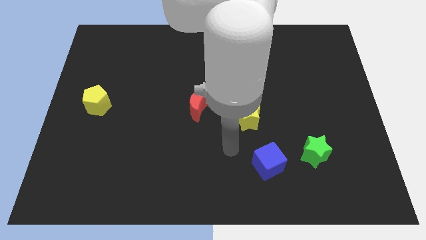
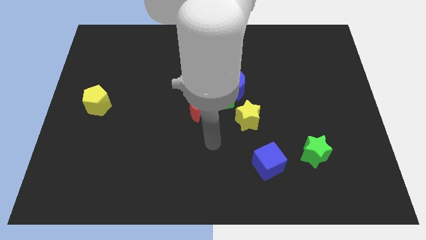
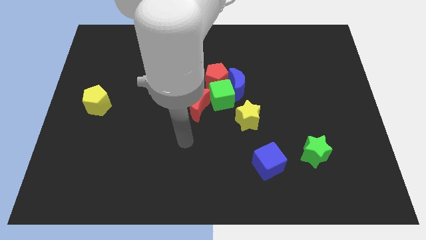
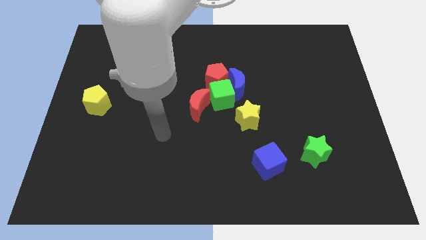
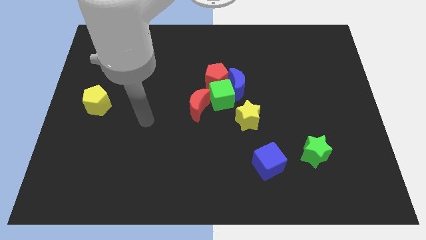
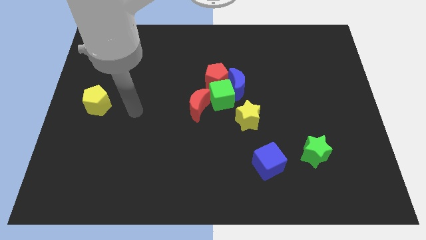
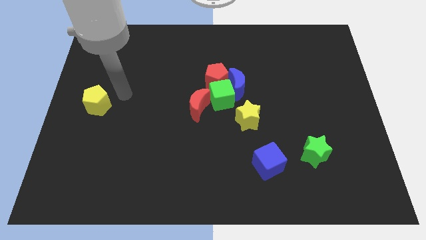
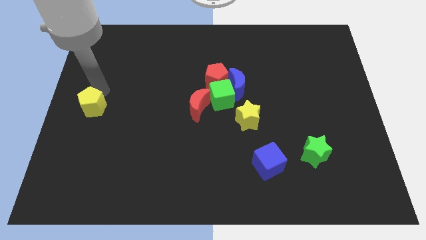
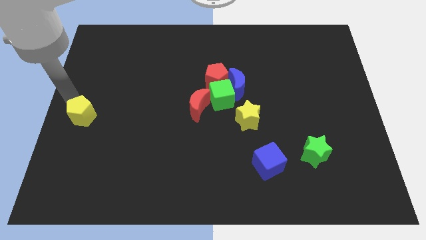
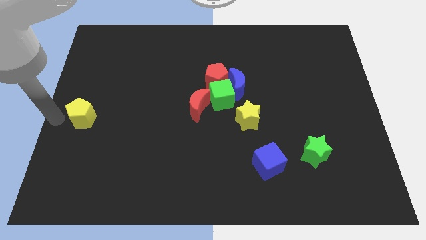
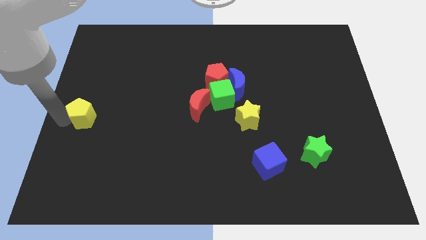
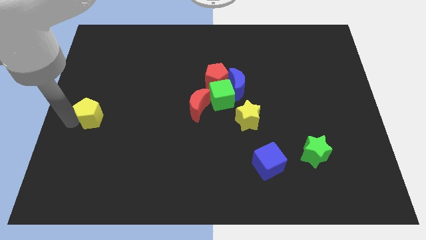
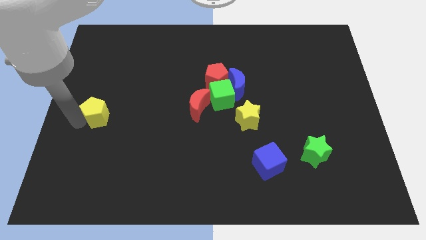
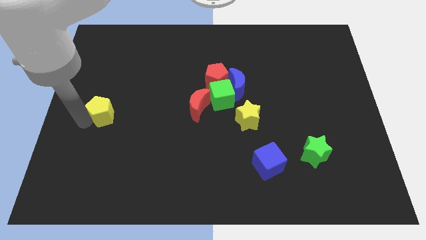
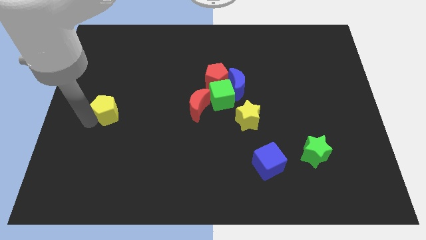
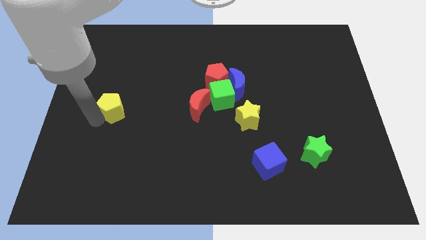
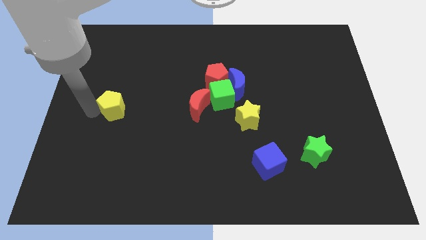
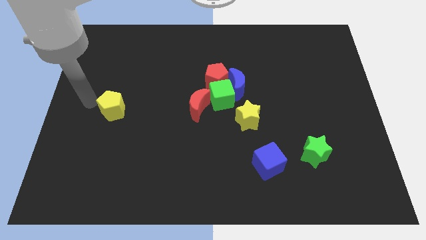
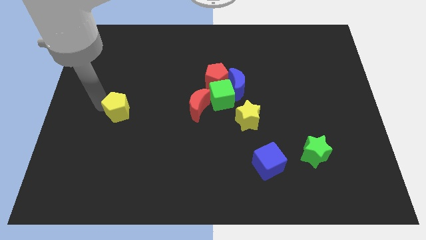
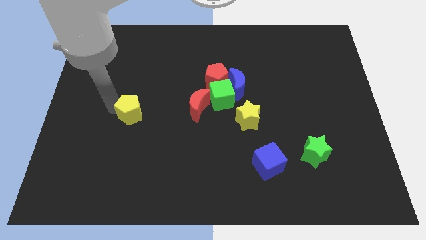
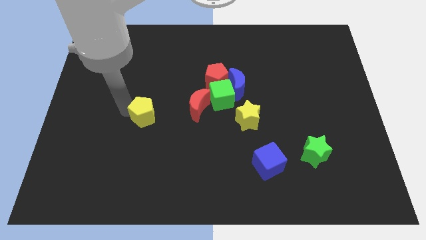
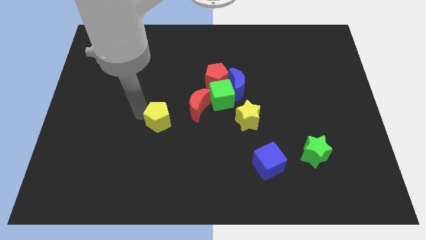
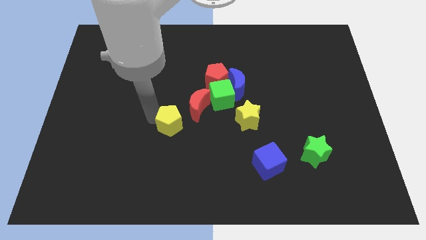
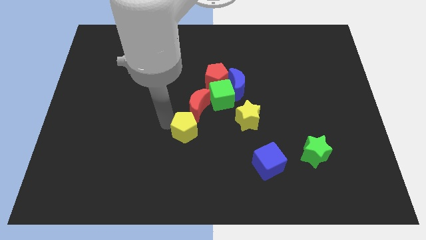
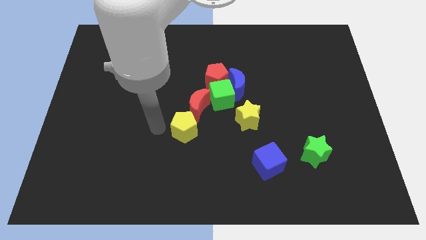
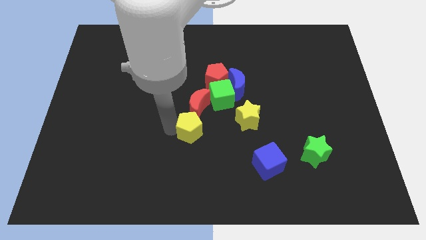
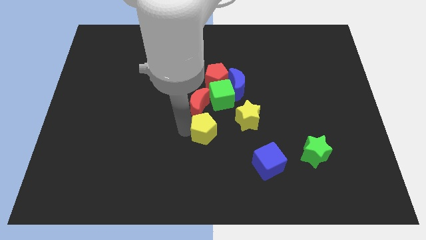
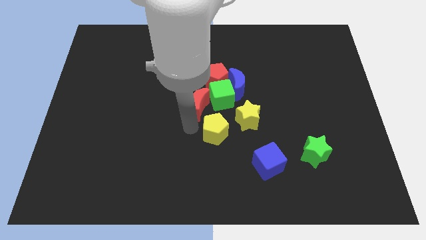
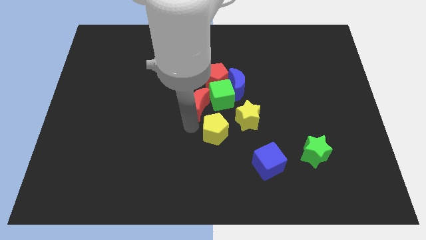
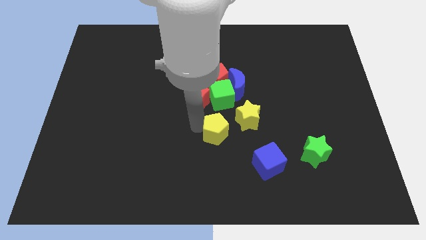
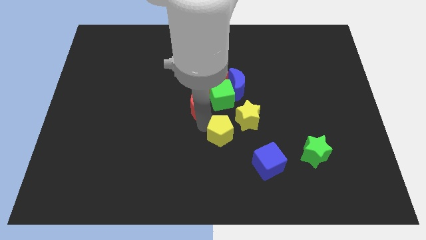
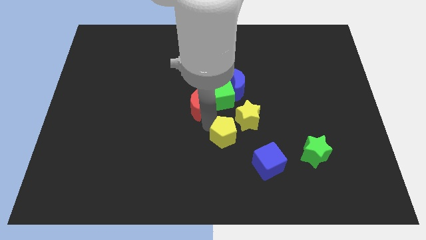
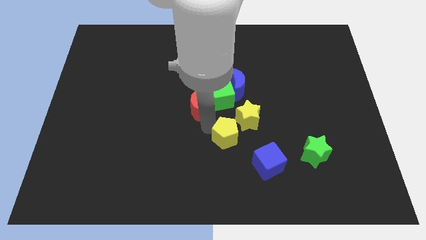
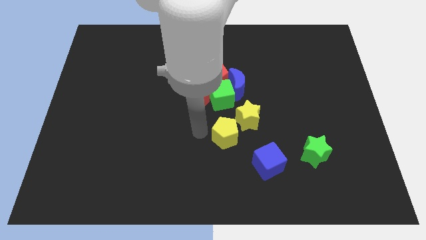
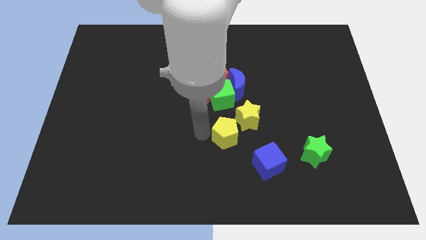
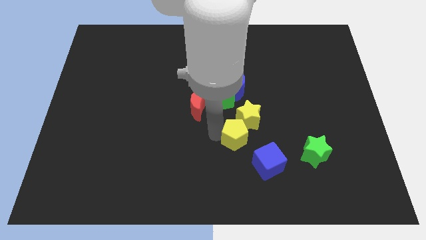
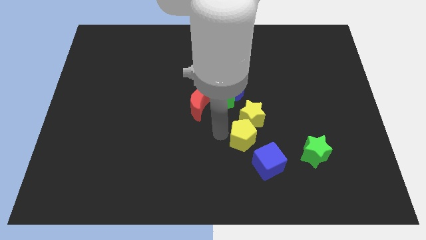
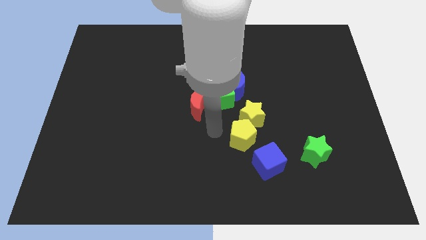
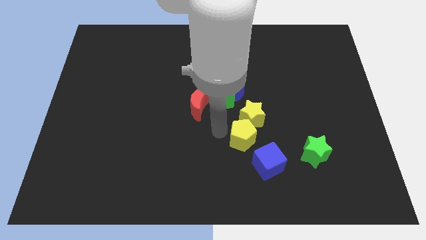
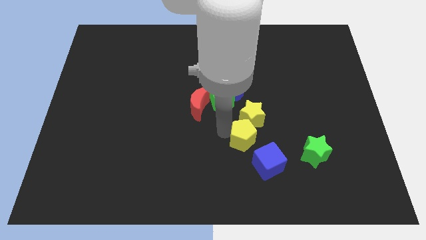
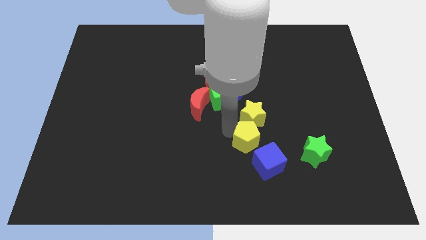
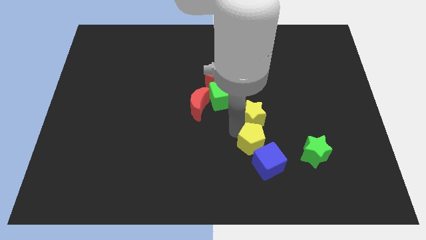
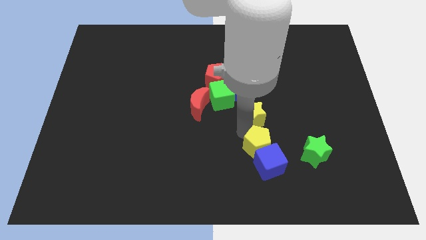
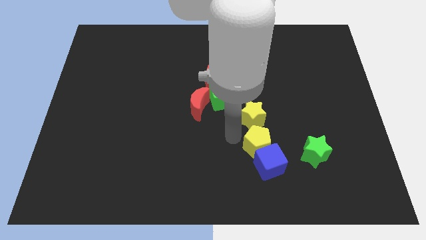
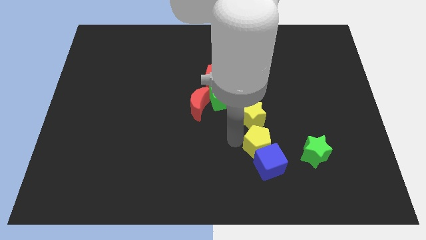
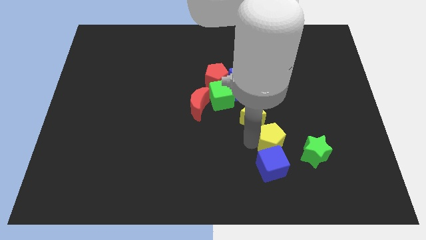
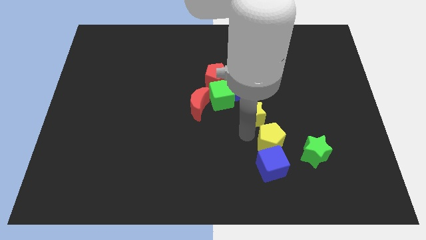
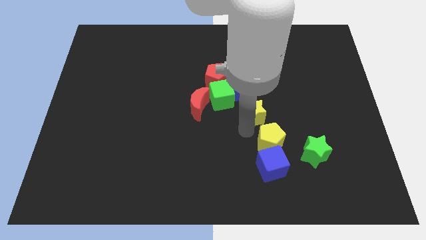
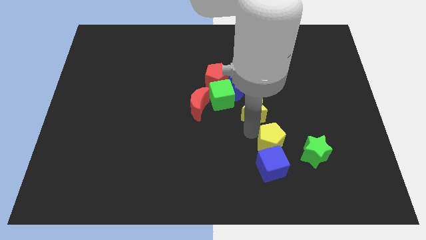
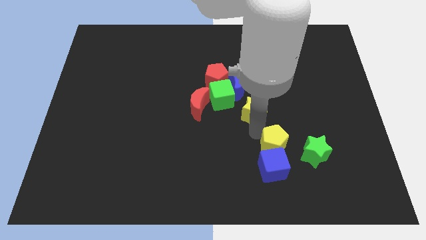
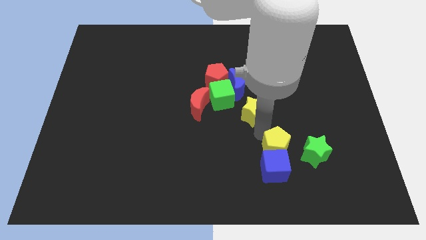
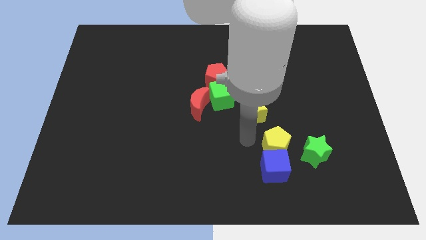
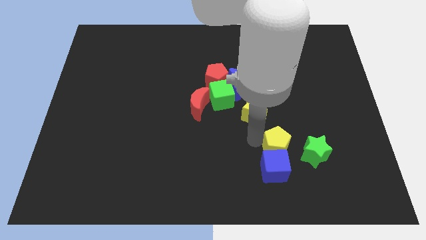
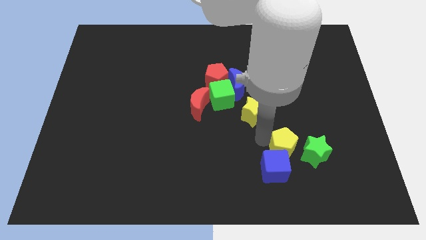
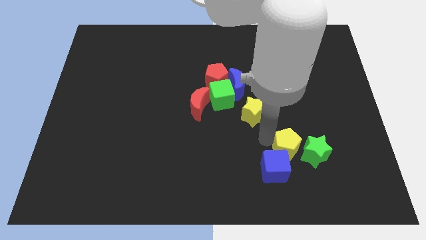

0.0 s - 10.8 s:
slide the yellow pentagon next to the green star

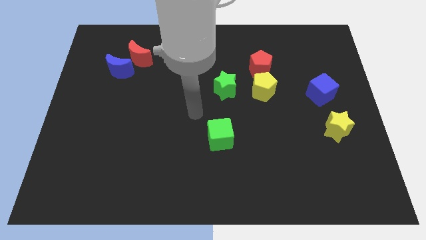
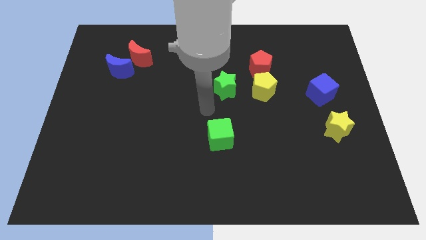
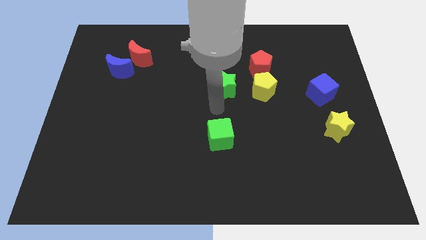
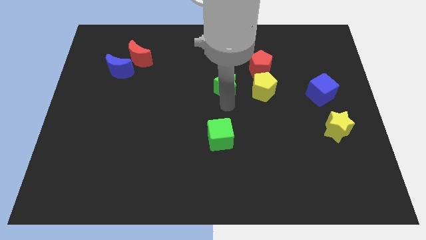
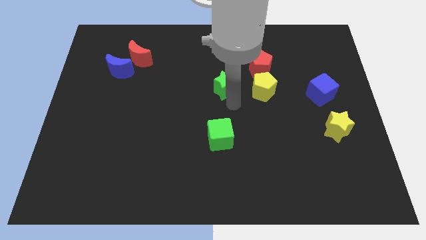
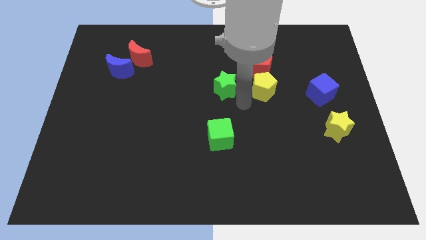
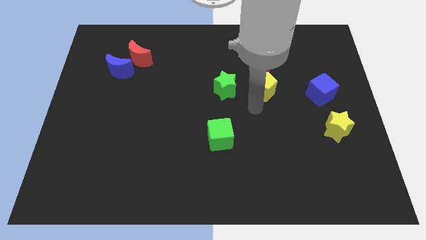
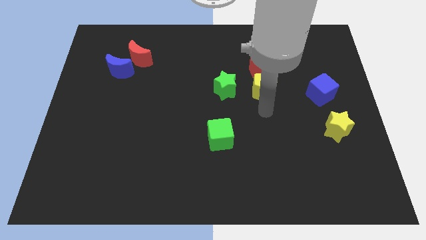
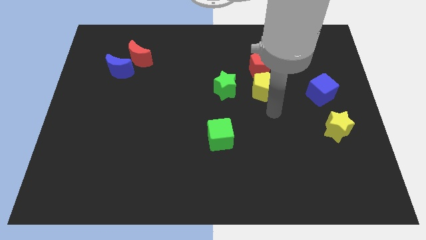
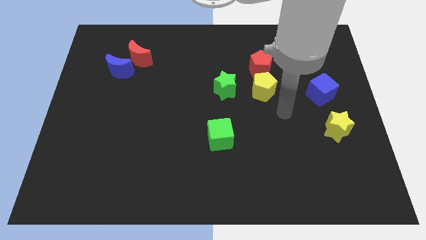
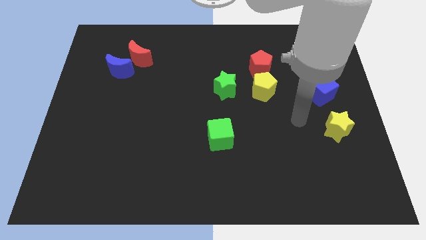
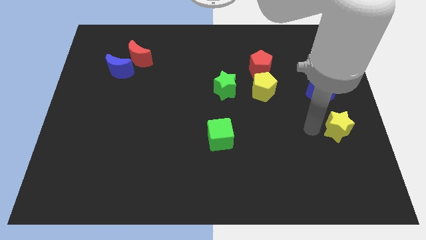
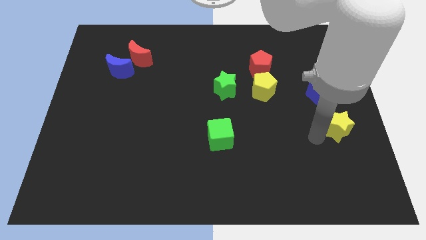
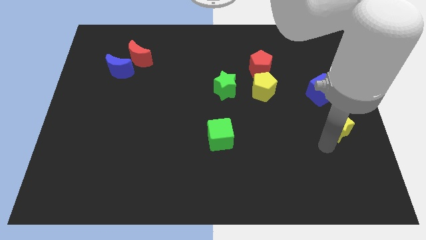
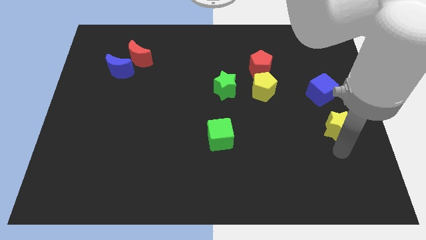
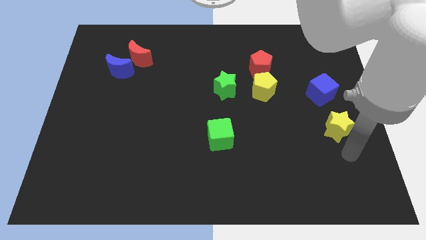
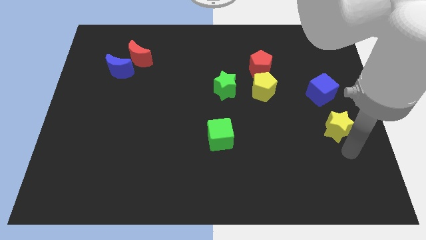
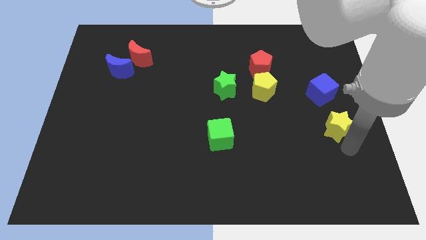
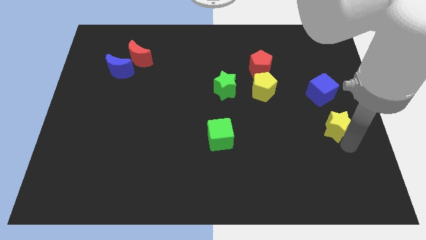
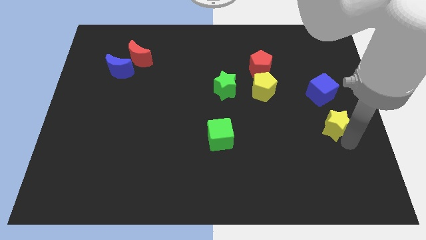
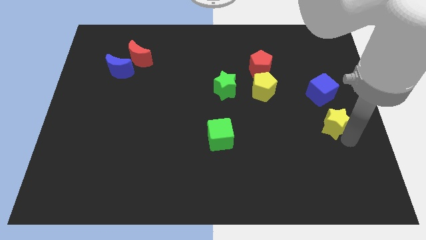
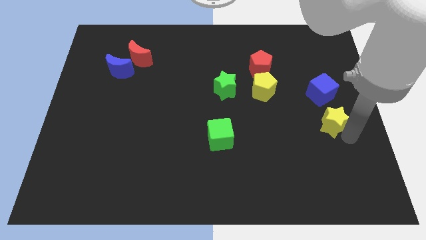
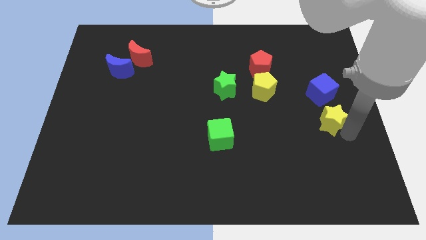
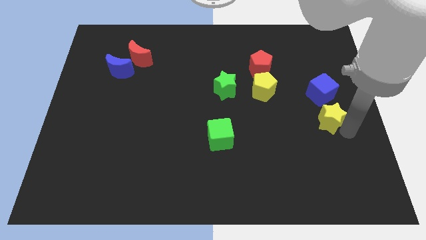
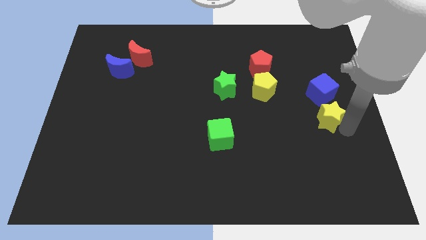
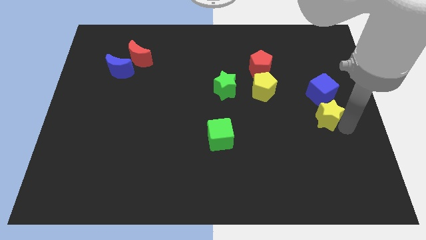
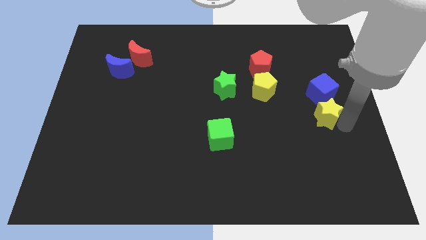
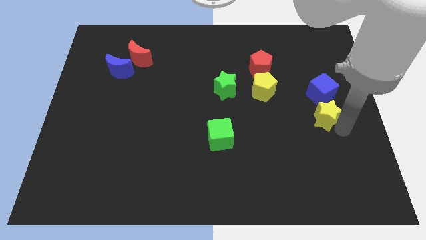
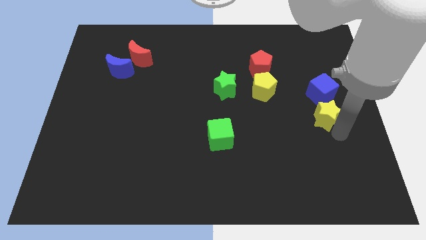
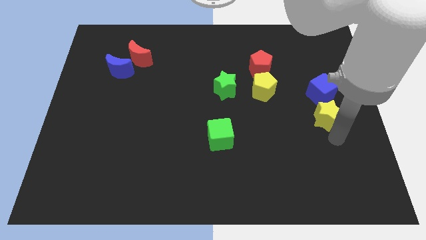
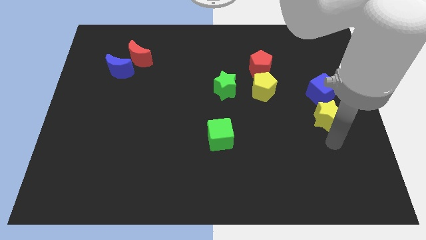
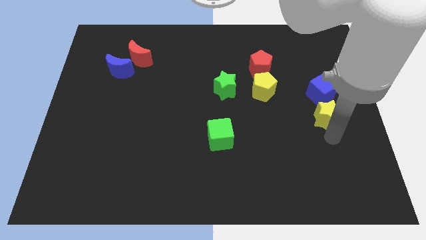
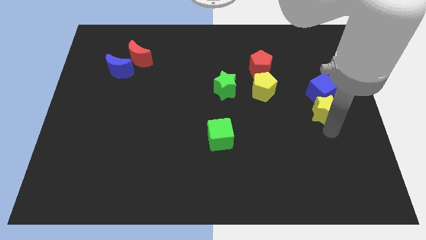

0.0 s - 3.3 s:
slide the yellow star to the blue cube
